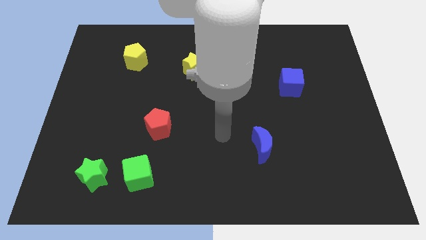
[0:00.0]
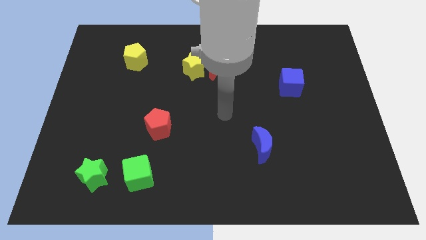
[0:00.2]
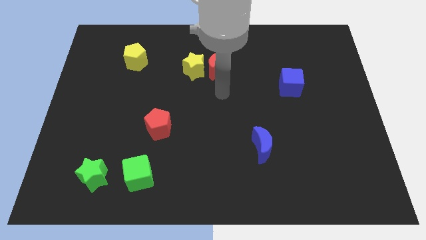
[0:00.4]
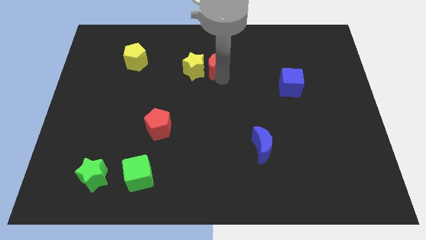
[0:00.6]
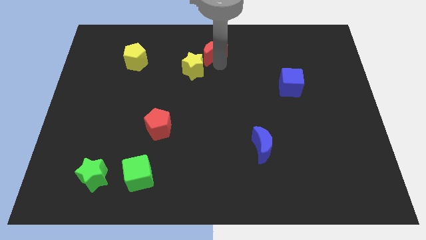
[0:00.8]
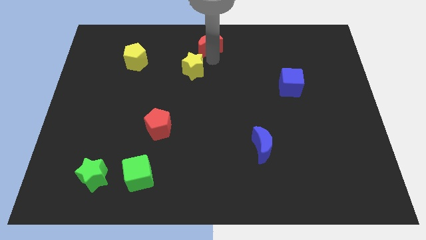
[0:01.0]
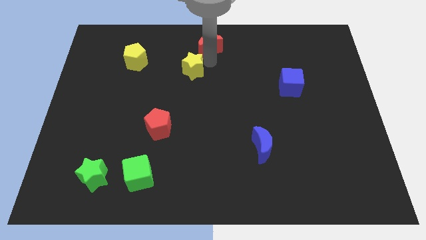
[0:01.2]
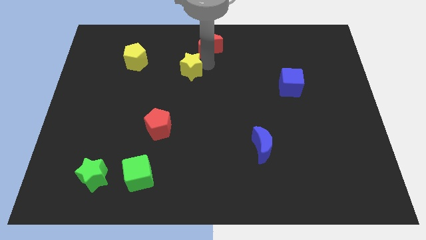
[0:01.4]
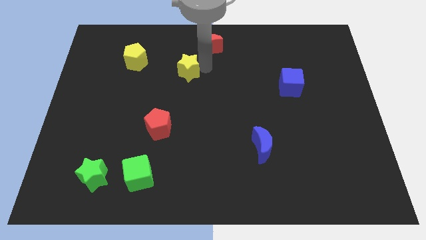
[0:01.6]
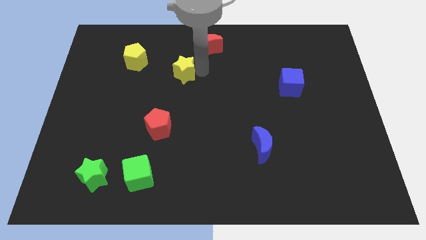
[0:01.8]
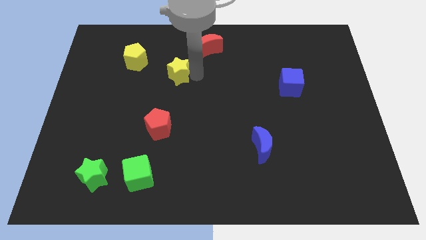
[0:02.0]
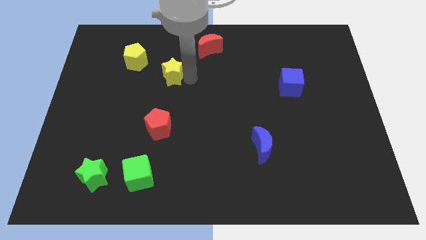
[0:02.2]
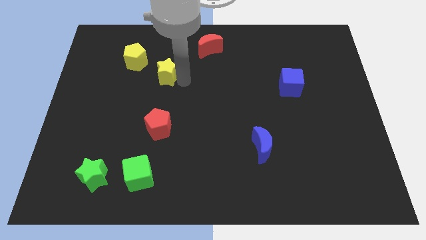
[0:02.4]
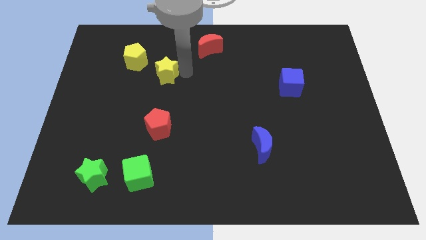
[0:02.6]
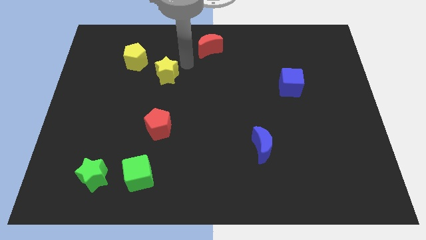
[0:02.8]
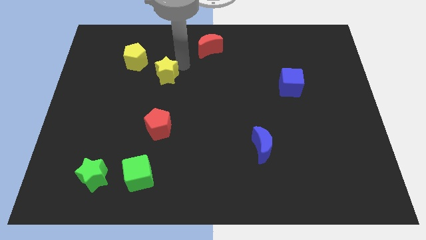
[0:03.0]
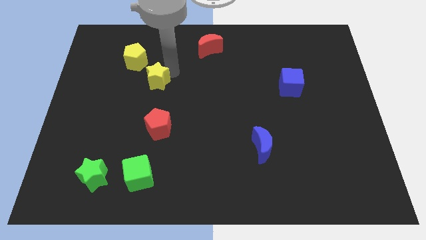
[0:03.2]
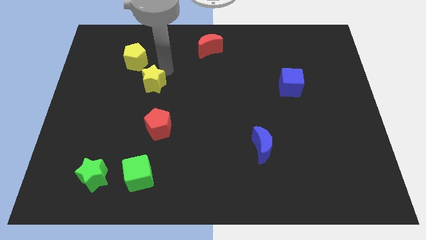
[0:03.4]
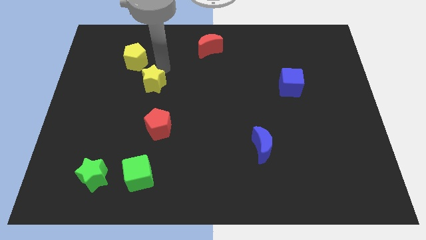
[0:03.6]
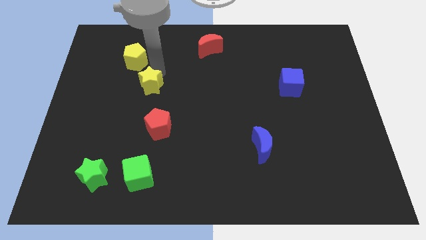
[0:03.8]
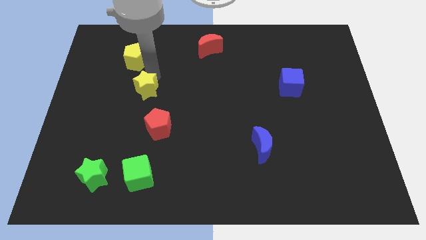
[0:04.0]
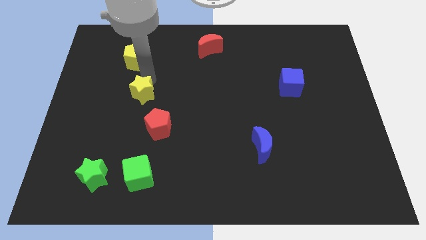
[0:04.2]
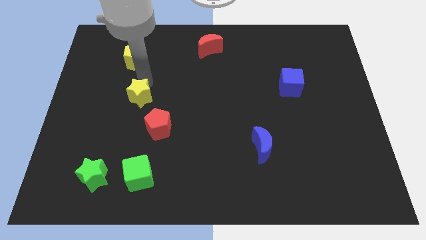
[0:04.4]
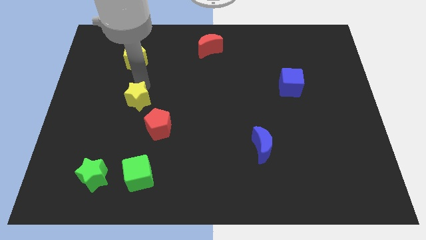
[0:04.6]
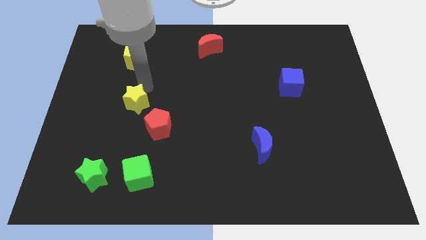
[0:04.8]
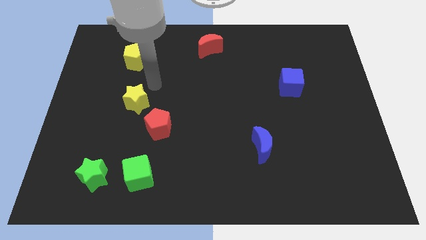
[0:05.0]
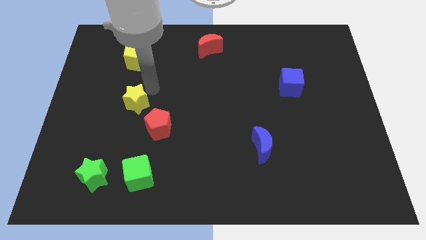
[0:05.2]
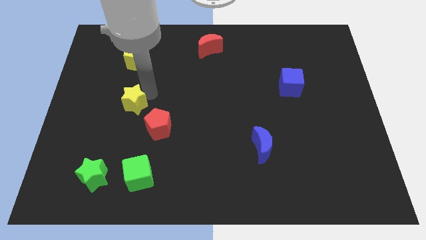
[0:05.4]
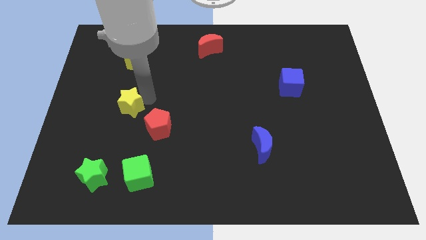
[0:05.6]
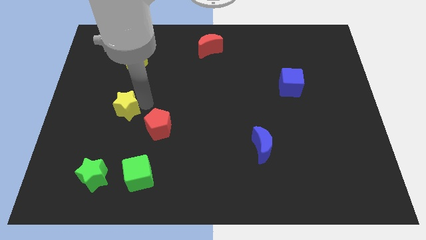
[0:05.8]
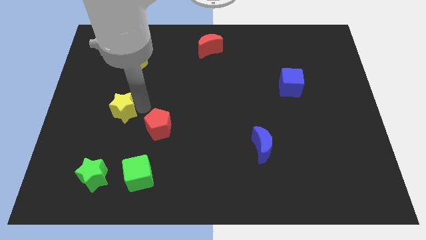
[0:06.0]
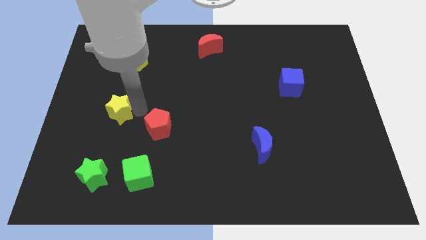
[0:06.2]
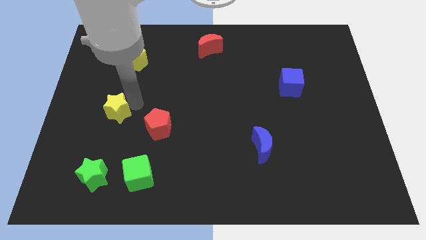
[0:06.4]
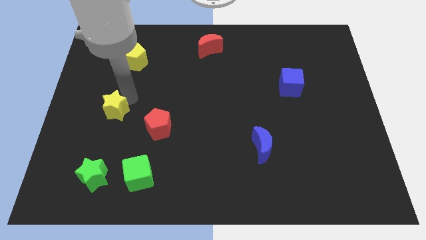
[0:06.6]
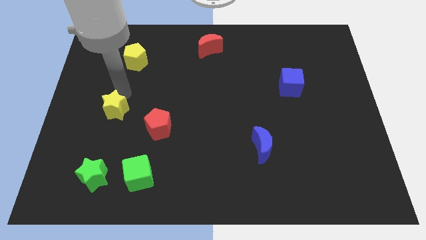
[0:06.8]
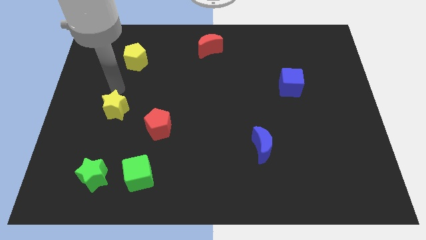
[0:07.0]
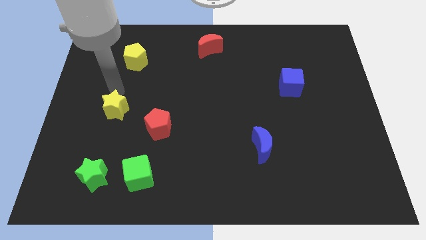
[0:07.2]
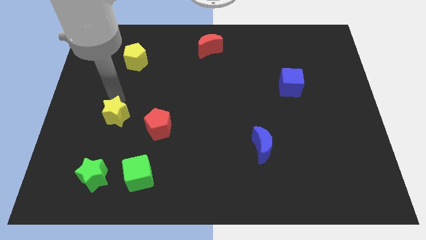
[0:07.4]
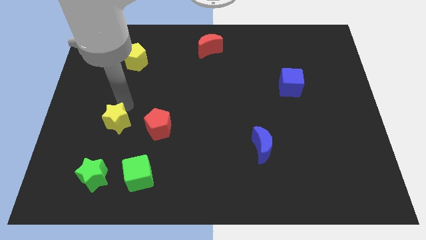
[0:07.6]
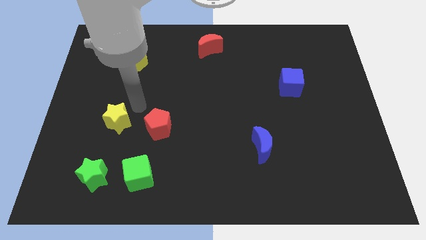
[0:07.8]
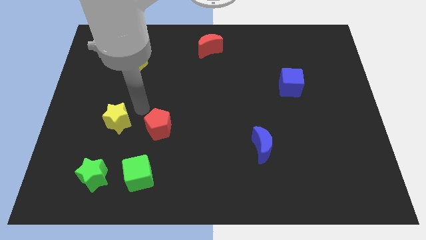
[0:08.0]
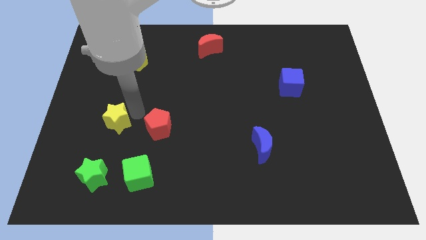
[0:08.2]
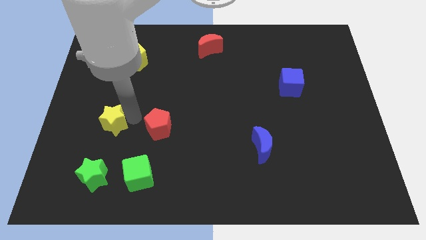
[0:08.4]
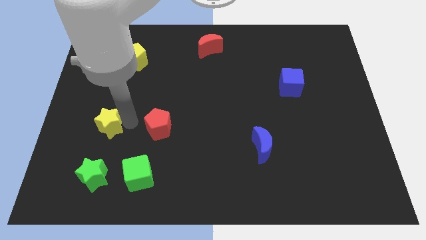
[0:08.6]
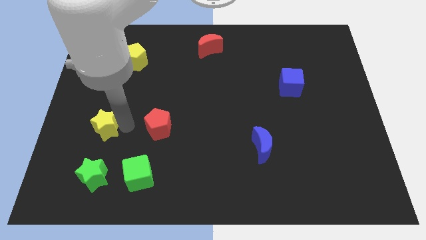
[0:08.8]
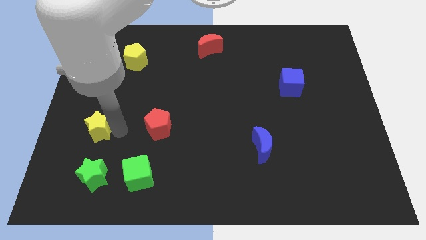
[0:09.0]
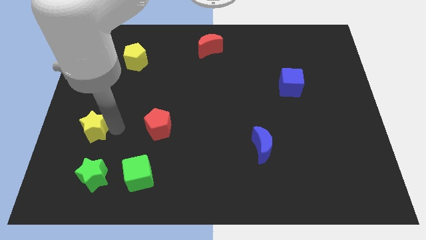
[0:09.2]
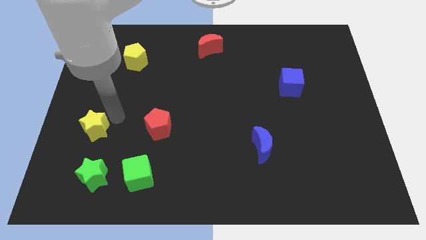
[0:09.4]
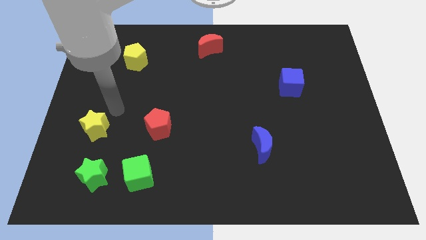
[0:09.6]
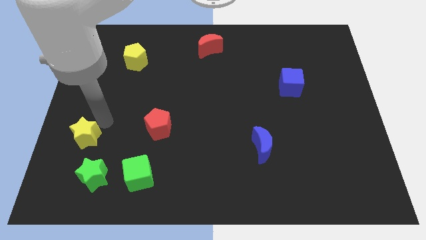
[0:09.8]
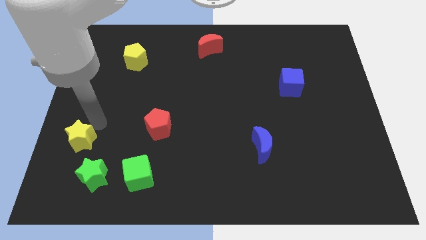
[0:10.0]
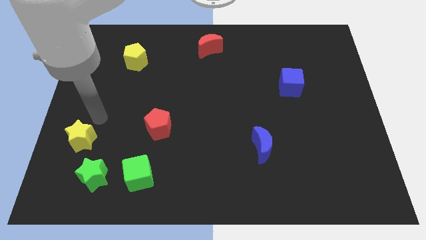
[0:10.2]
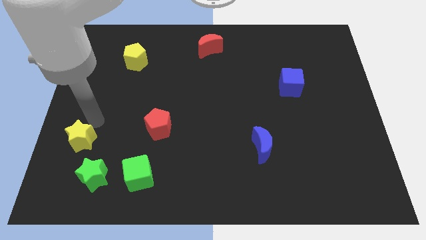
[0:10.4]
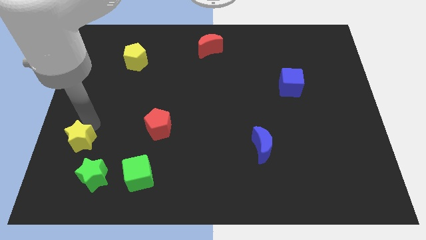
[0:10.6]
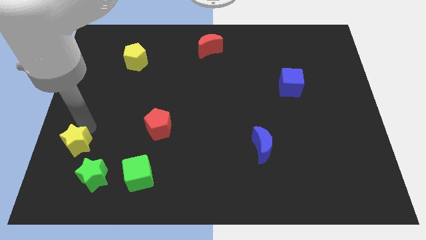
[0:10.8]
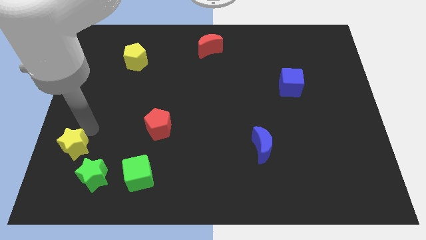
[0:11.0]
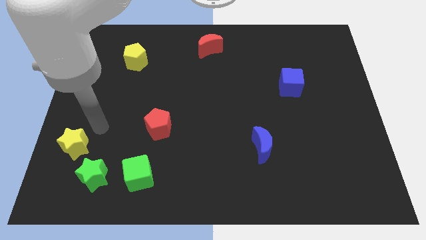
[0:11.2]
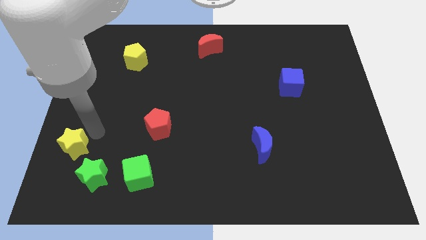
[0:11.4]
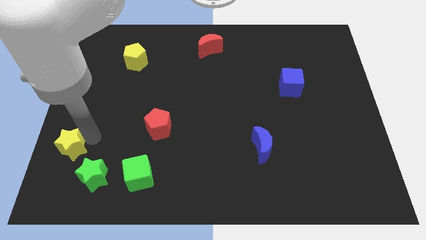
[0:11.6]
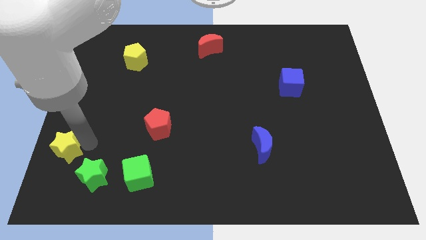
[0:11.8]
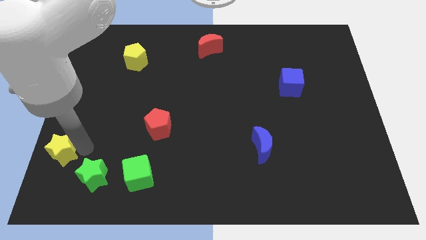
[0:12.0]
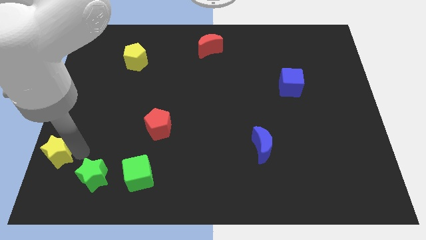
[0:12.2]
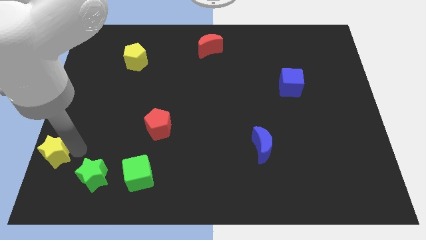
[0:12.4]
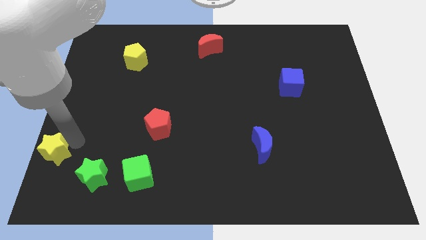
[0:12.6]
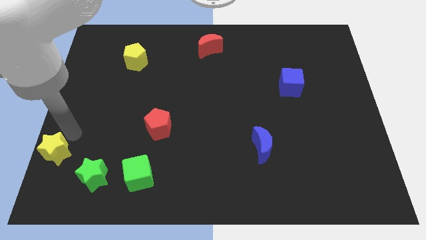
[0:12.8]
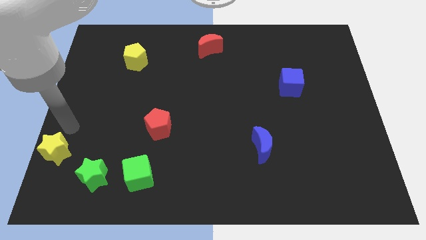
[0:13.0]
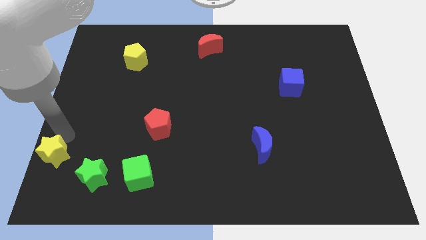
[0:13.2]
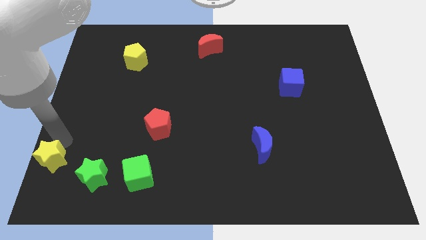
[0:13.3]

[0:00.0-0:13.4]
slide the yellow star to the bottom left corner
